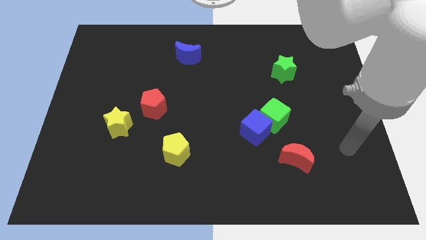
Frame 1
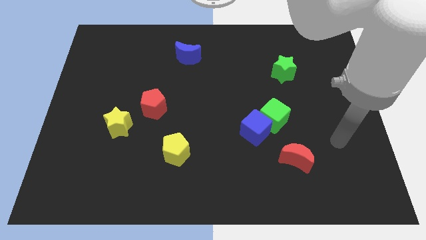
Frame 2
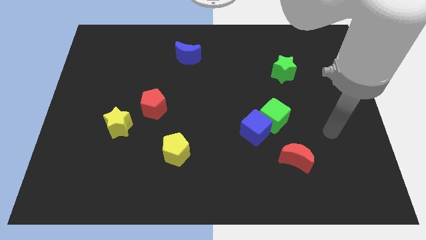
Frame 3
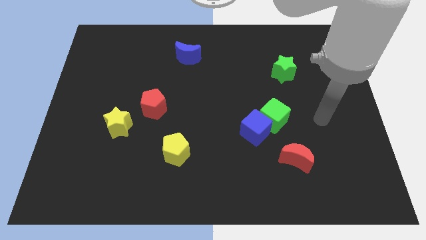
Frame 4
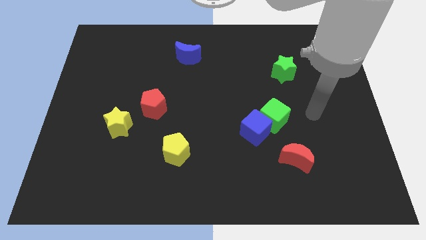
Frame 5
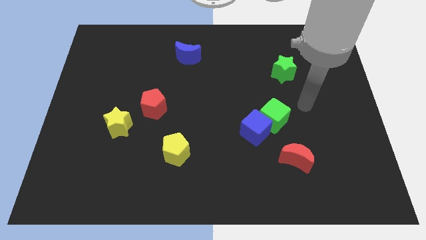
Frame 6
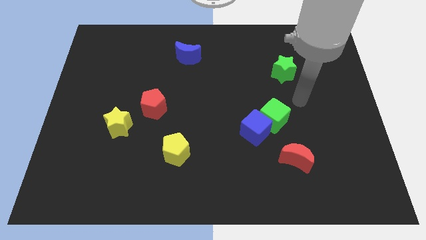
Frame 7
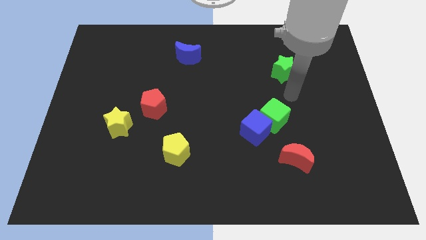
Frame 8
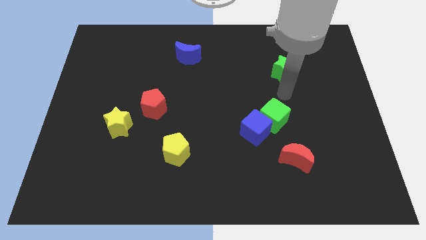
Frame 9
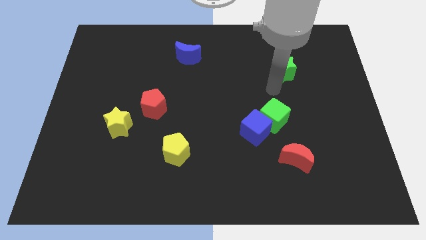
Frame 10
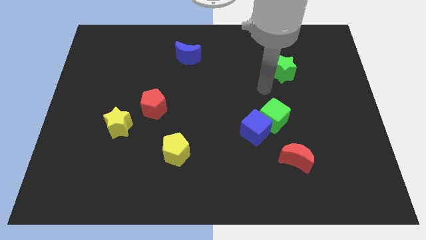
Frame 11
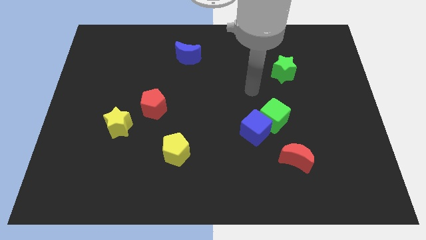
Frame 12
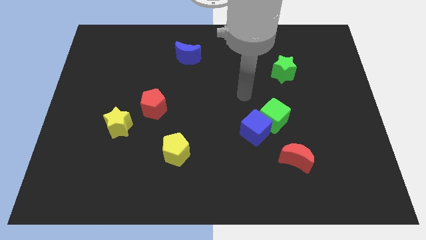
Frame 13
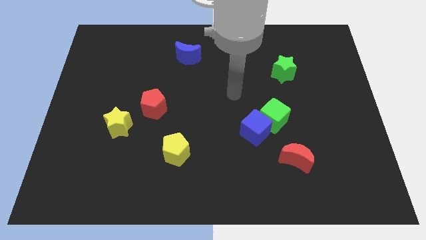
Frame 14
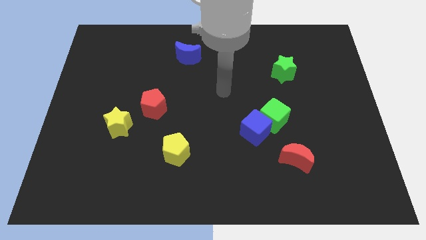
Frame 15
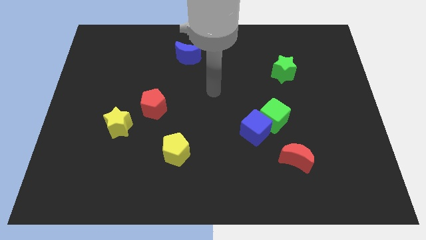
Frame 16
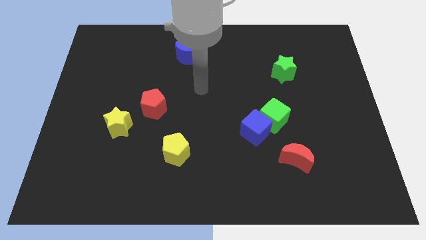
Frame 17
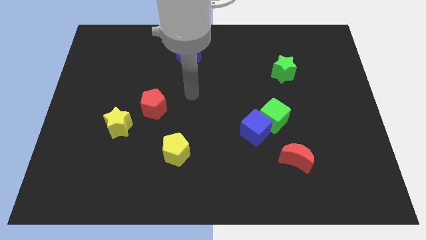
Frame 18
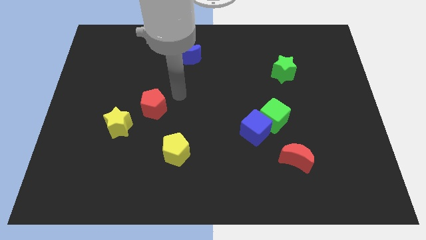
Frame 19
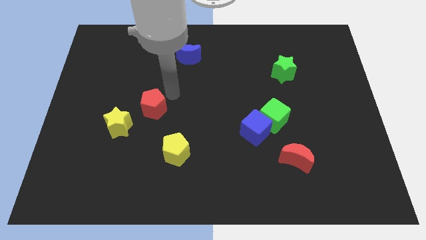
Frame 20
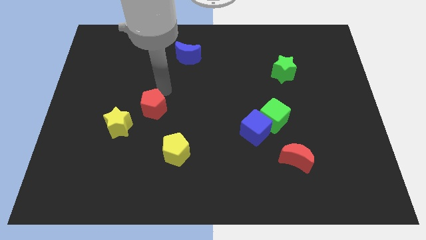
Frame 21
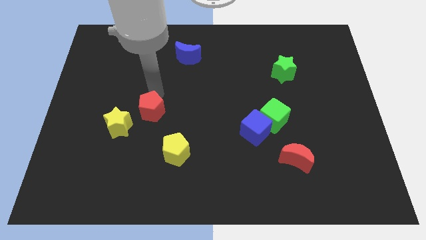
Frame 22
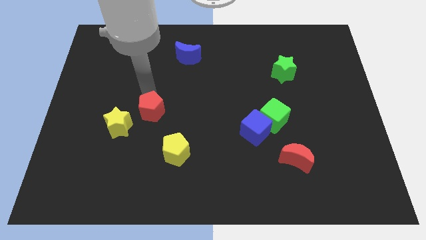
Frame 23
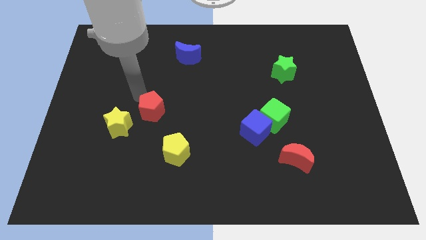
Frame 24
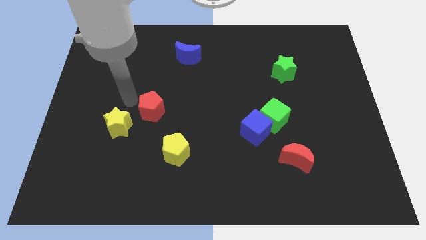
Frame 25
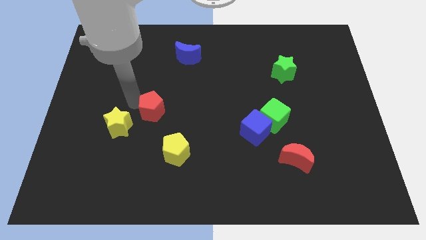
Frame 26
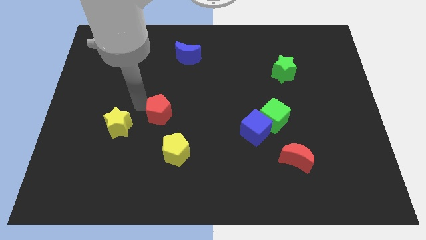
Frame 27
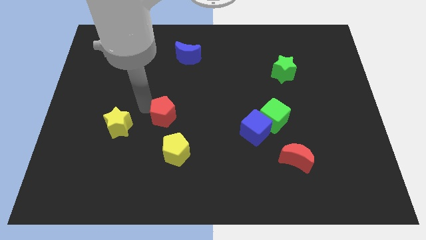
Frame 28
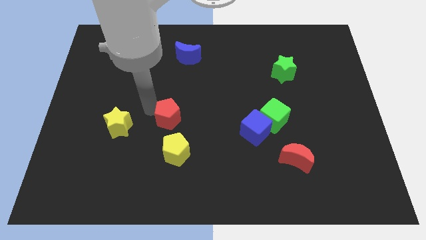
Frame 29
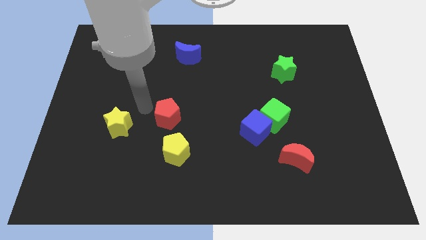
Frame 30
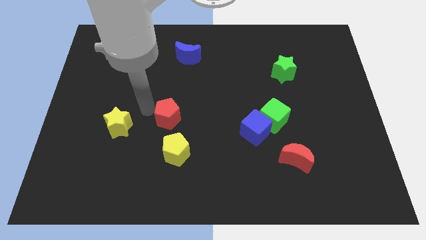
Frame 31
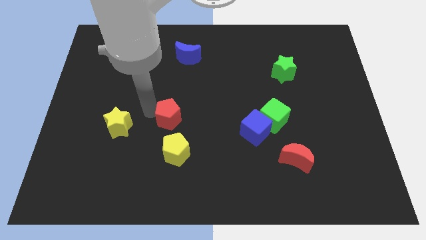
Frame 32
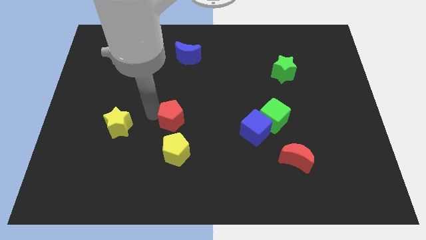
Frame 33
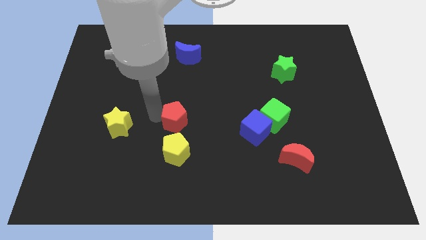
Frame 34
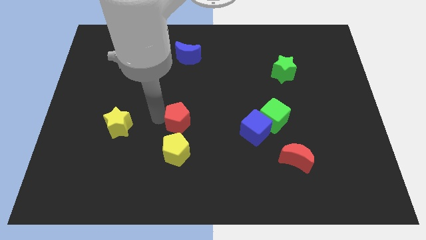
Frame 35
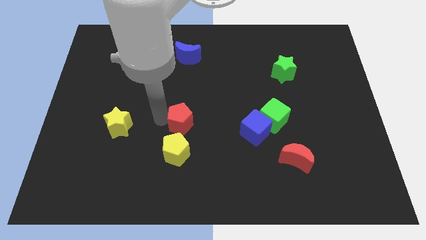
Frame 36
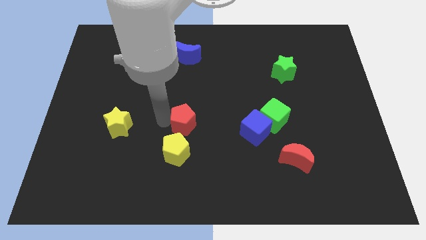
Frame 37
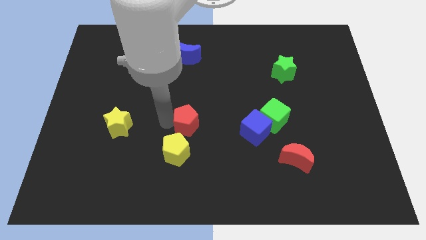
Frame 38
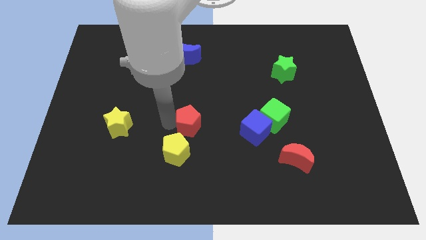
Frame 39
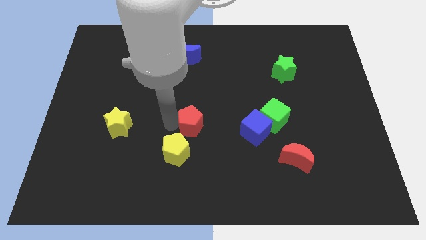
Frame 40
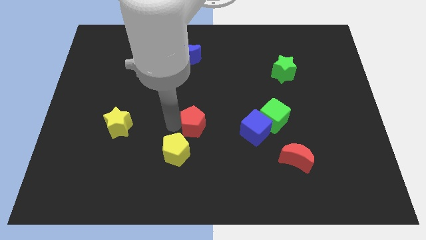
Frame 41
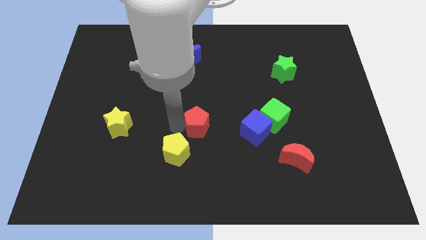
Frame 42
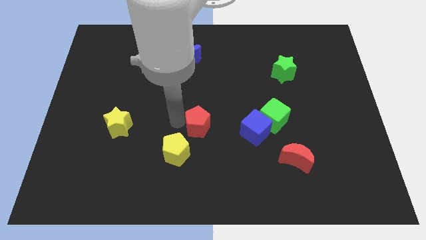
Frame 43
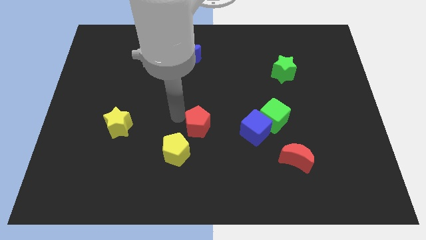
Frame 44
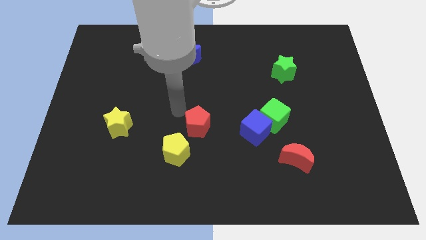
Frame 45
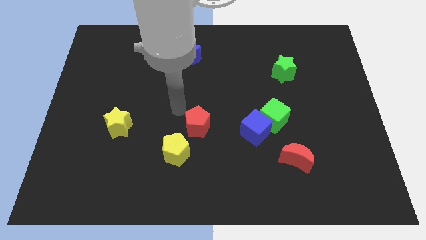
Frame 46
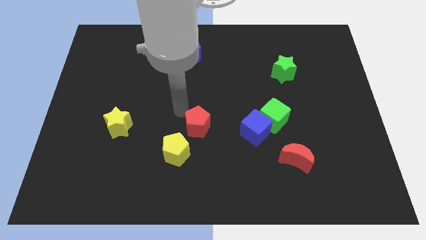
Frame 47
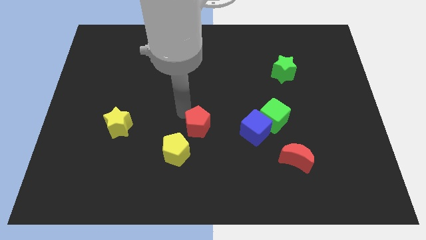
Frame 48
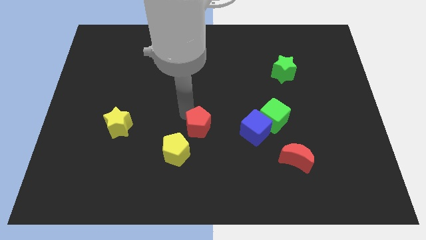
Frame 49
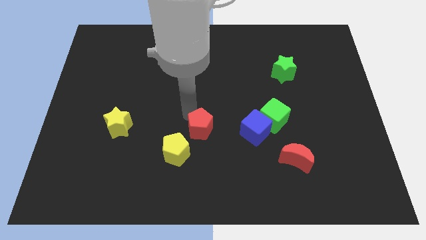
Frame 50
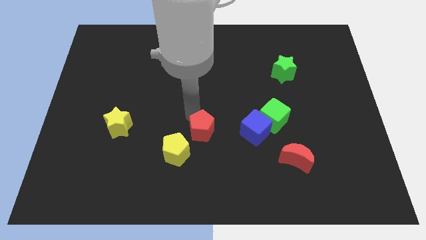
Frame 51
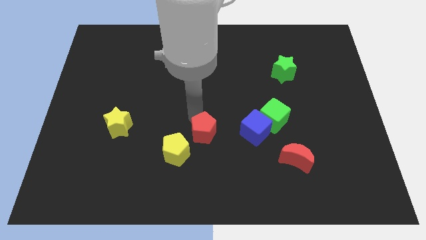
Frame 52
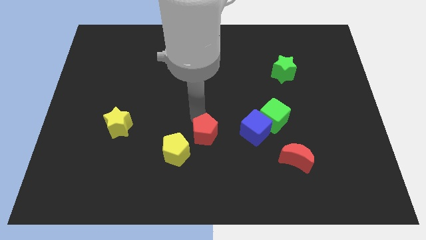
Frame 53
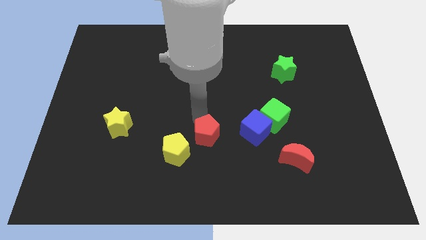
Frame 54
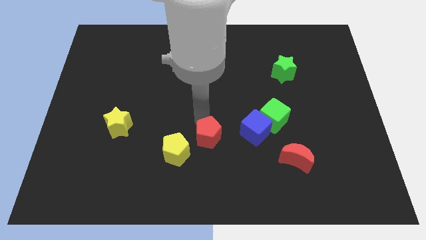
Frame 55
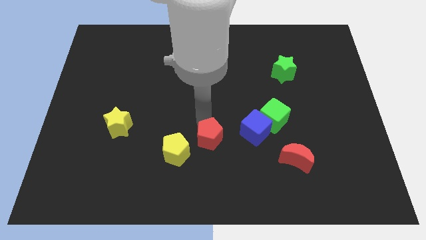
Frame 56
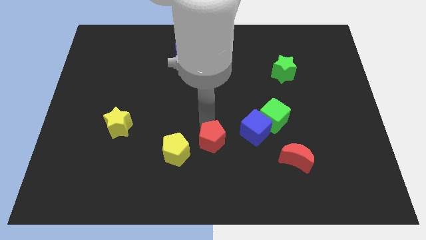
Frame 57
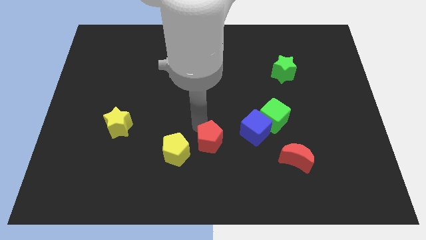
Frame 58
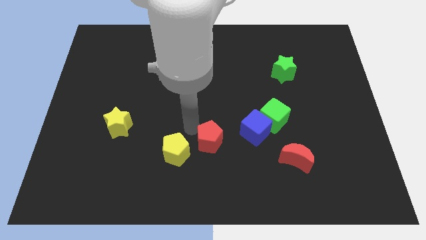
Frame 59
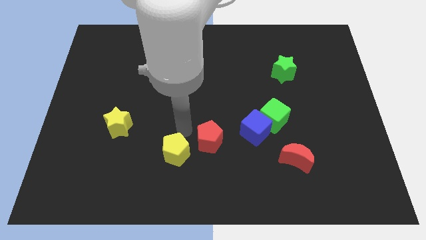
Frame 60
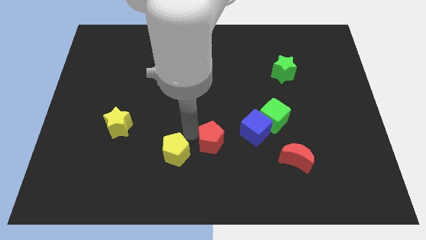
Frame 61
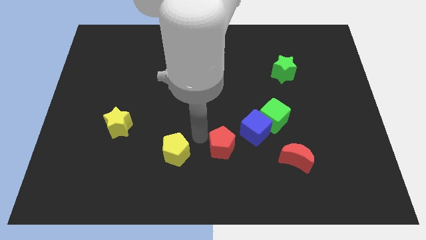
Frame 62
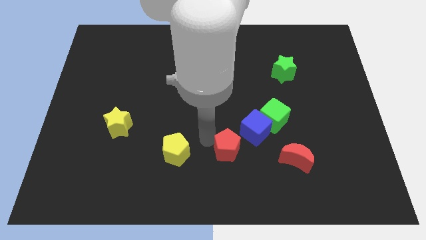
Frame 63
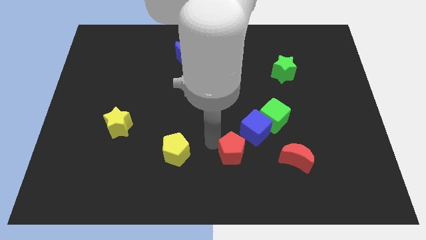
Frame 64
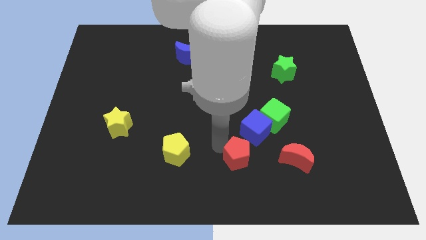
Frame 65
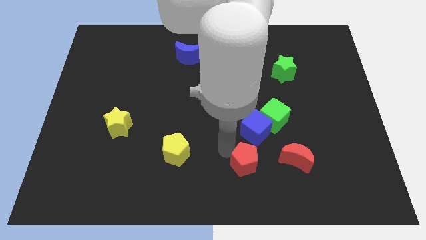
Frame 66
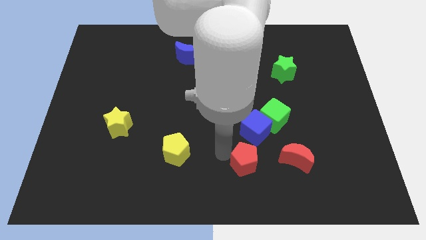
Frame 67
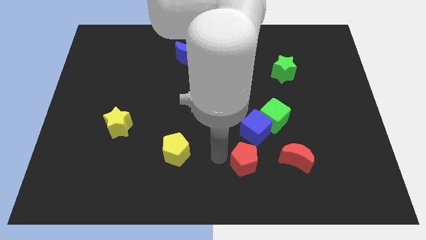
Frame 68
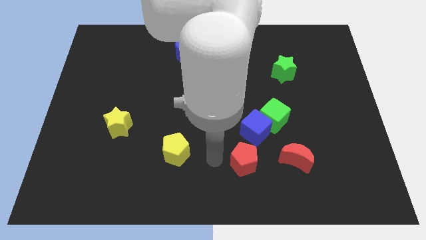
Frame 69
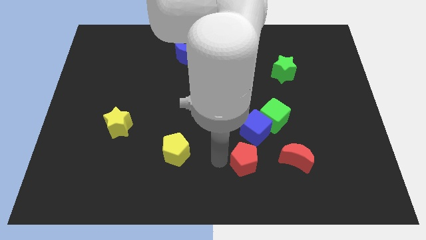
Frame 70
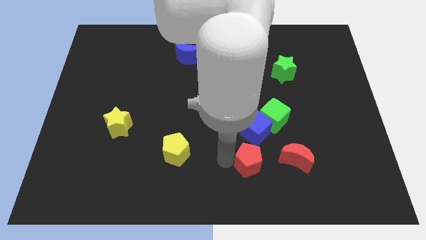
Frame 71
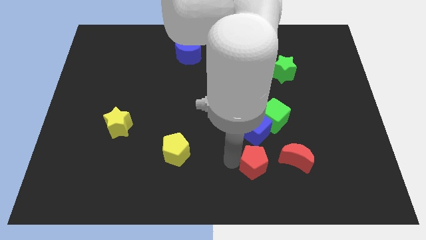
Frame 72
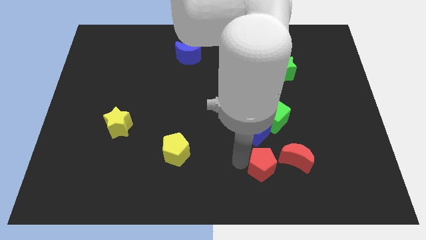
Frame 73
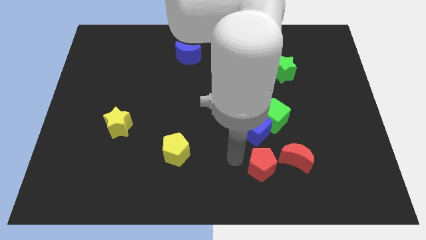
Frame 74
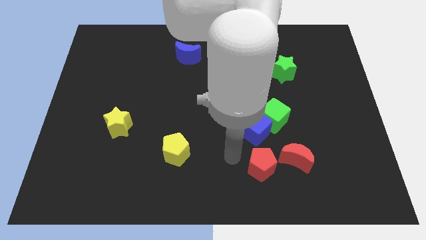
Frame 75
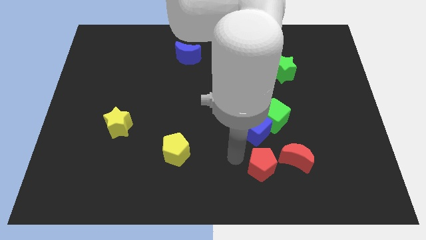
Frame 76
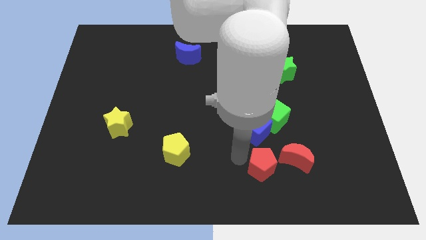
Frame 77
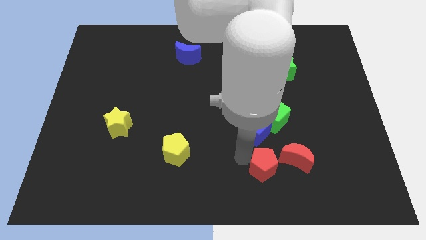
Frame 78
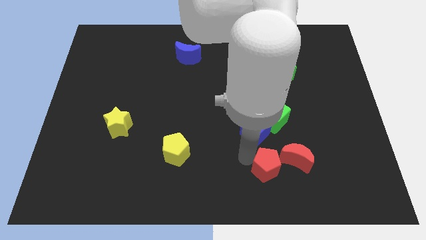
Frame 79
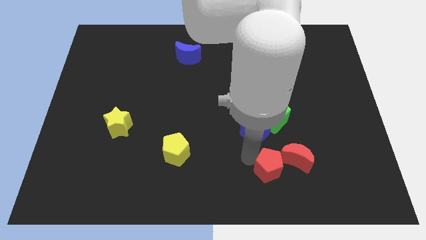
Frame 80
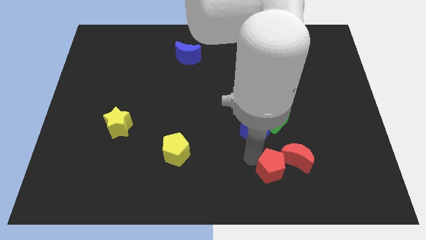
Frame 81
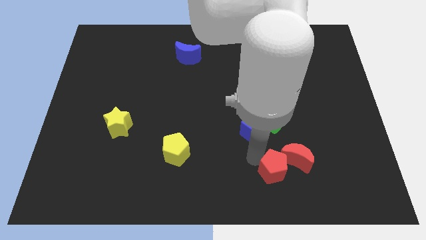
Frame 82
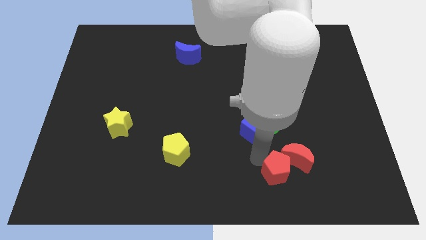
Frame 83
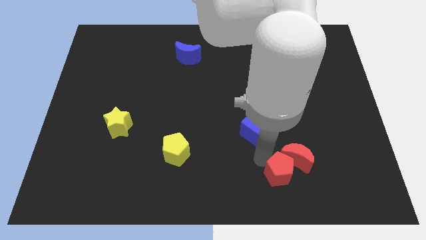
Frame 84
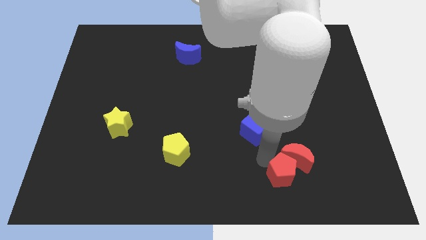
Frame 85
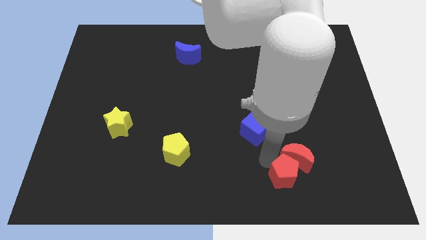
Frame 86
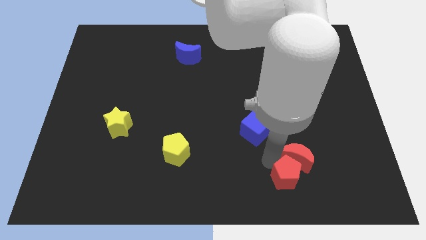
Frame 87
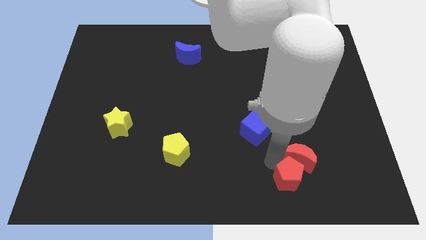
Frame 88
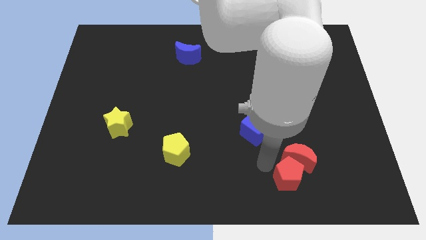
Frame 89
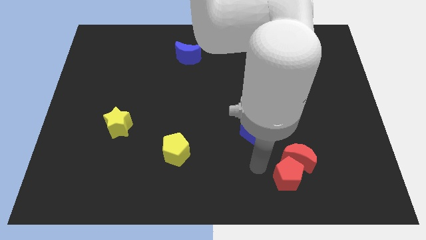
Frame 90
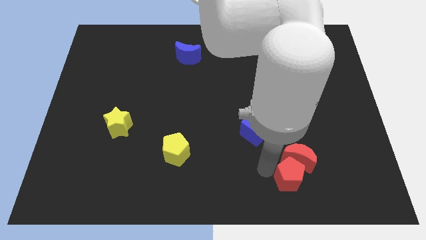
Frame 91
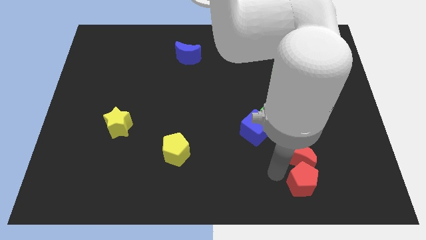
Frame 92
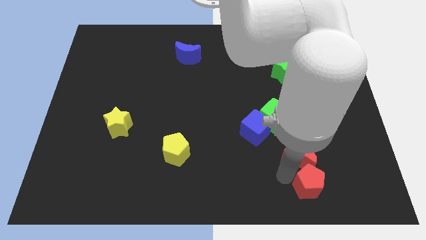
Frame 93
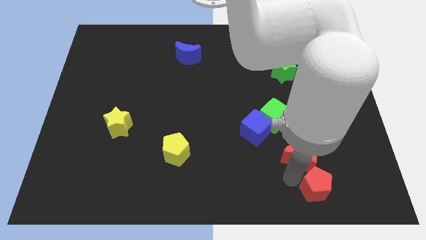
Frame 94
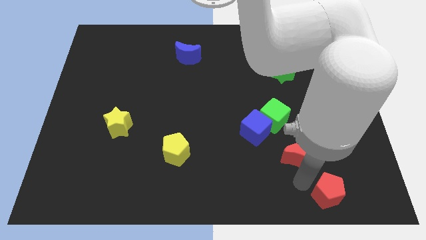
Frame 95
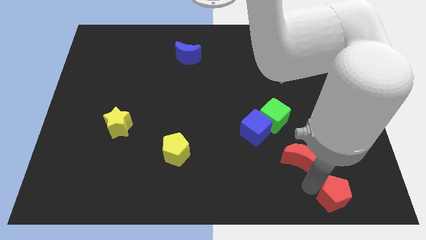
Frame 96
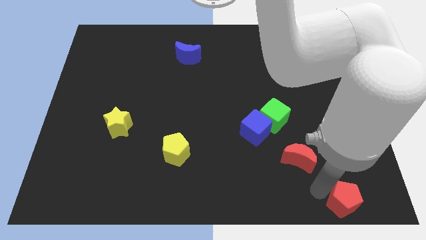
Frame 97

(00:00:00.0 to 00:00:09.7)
move the red pentagon to the bottom right corner
